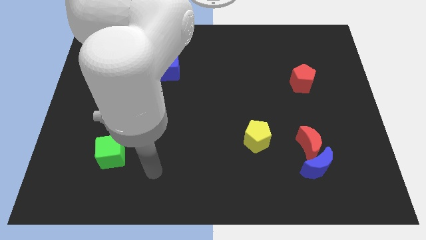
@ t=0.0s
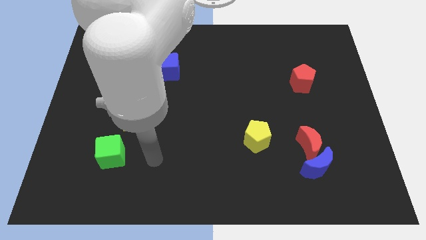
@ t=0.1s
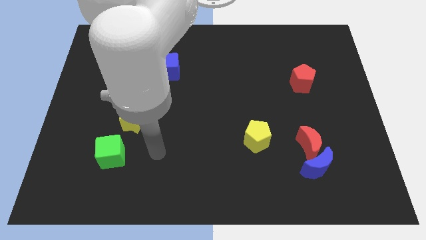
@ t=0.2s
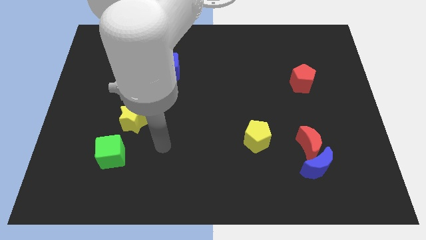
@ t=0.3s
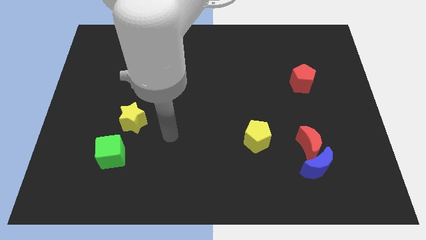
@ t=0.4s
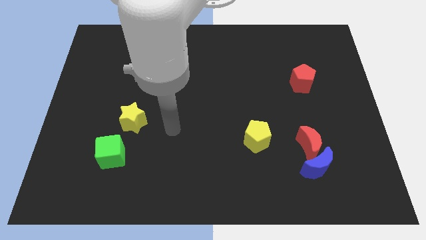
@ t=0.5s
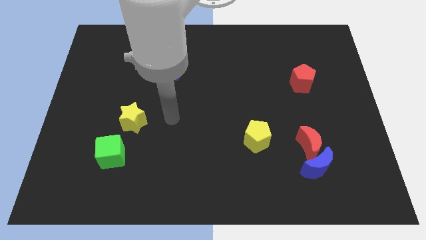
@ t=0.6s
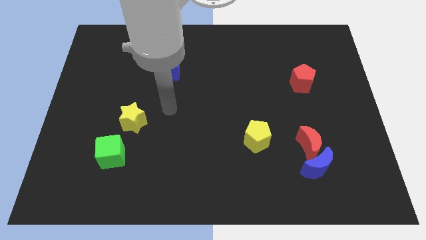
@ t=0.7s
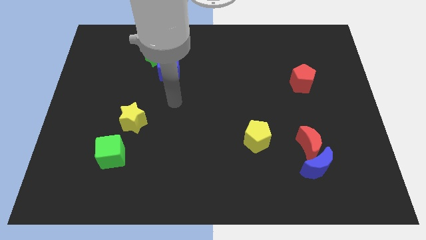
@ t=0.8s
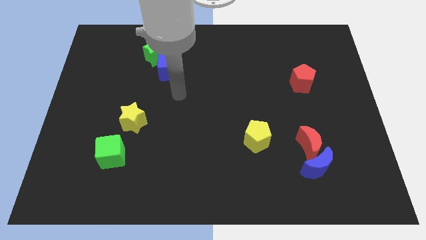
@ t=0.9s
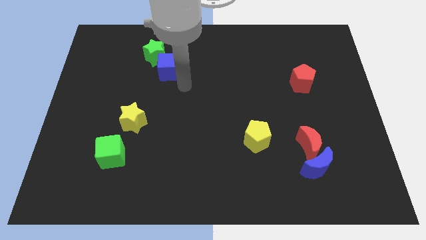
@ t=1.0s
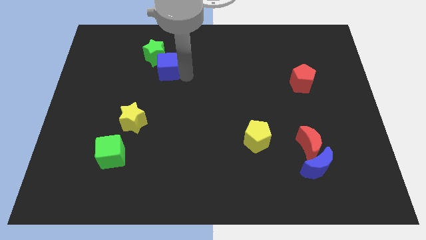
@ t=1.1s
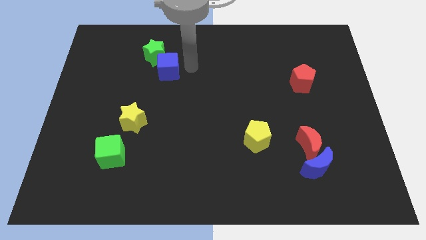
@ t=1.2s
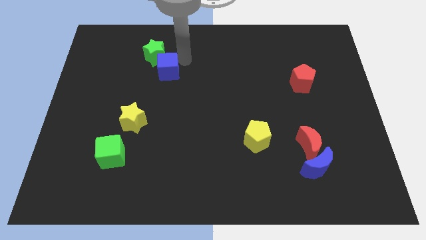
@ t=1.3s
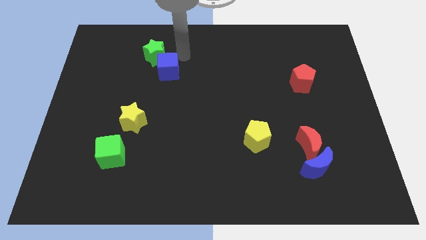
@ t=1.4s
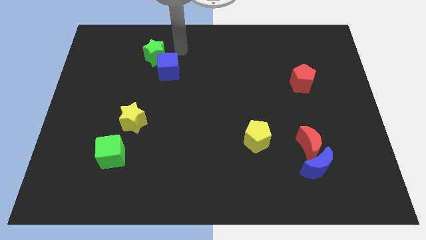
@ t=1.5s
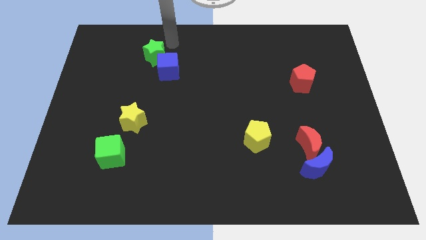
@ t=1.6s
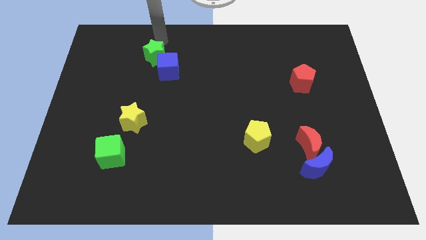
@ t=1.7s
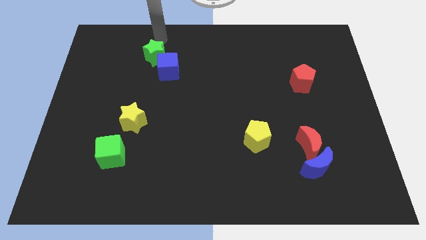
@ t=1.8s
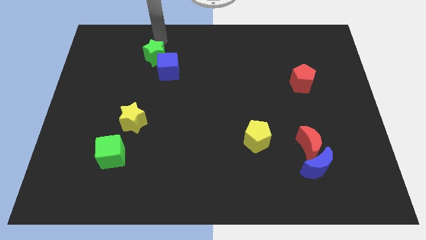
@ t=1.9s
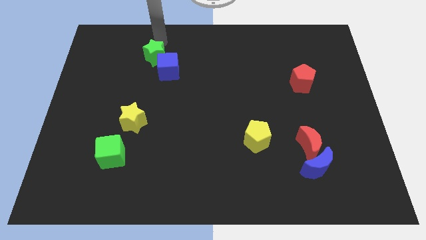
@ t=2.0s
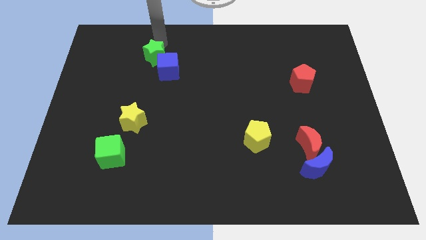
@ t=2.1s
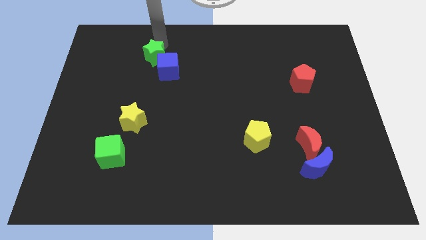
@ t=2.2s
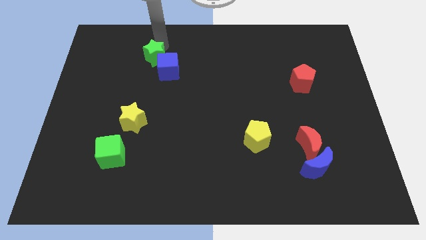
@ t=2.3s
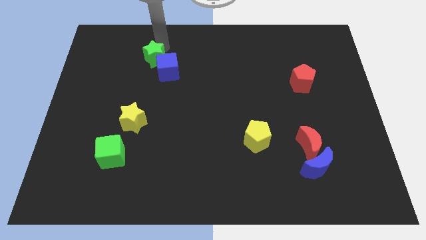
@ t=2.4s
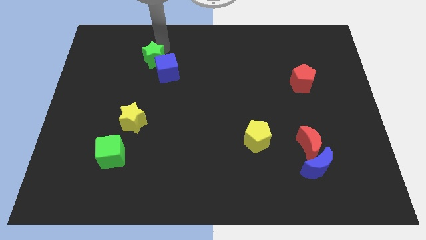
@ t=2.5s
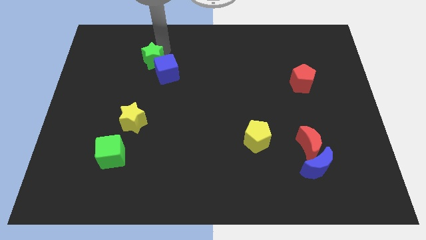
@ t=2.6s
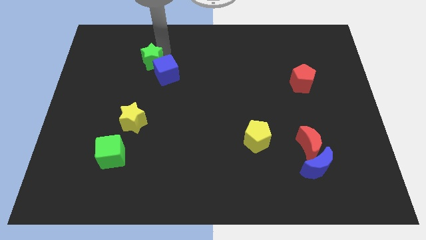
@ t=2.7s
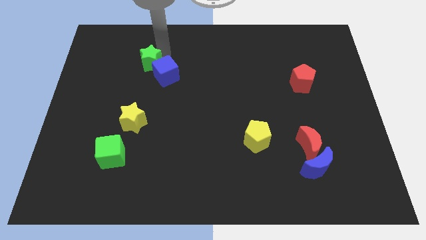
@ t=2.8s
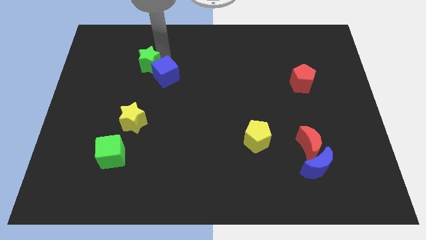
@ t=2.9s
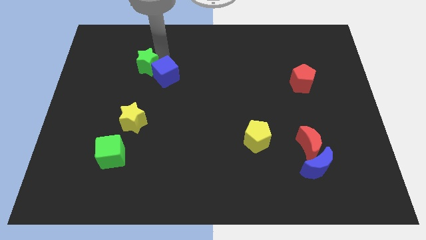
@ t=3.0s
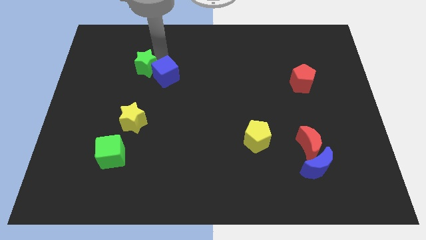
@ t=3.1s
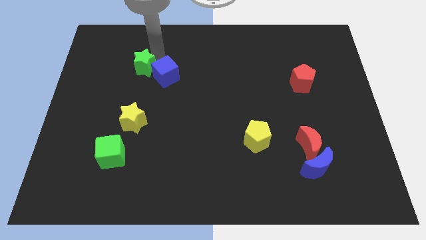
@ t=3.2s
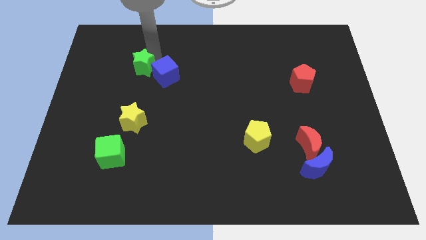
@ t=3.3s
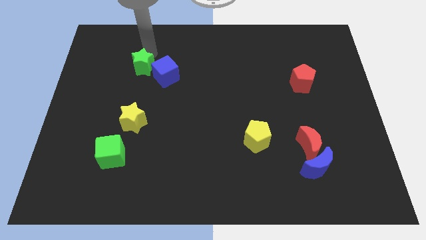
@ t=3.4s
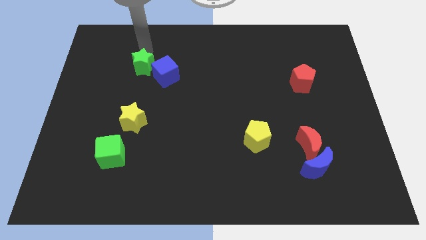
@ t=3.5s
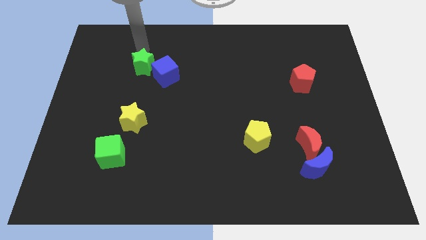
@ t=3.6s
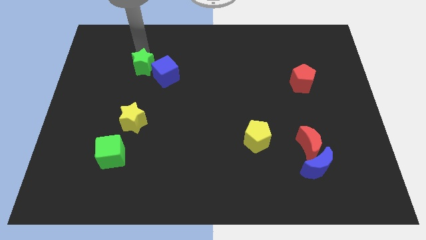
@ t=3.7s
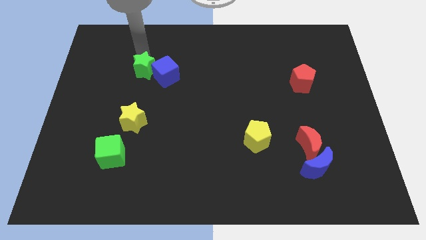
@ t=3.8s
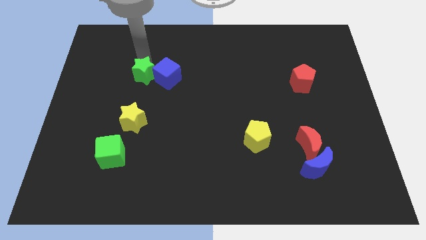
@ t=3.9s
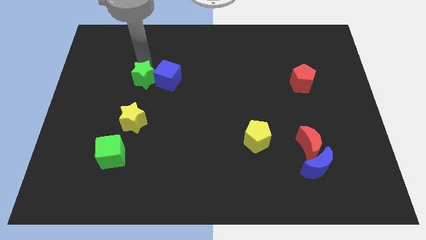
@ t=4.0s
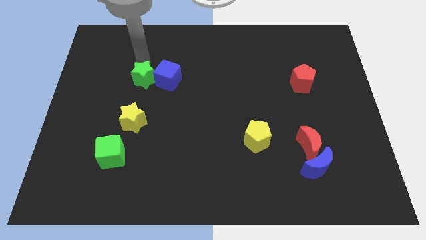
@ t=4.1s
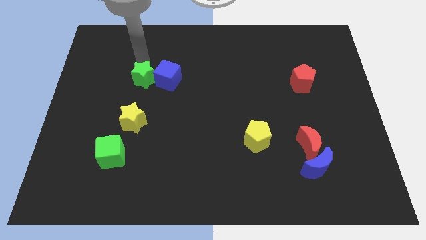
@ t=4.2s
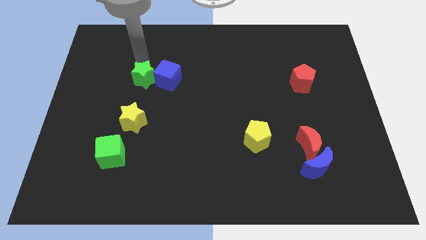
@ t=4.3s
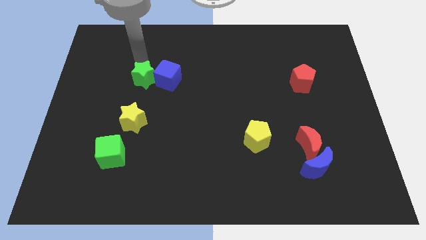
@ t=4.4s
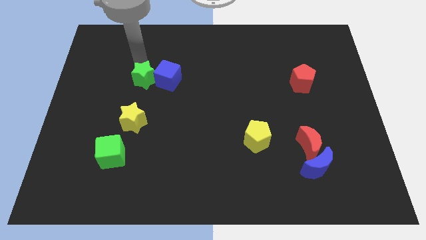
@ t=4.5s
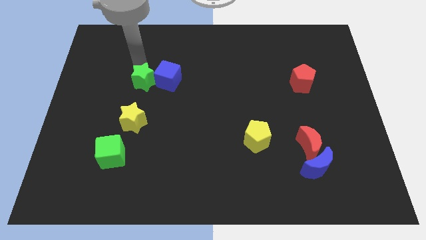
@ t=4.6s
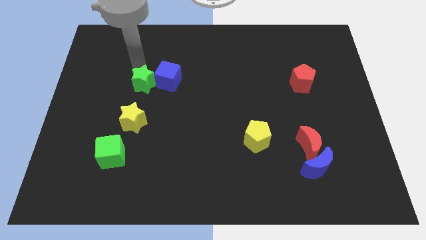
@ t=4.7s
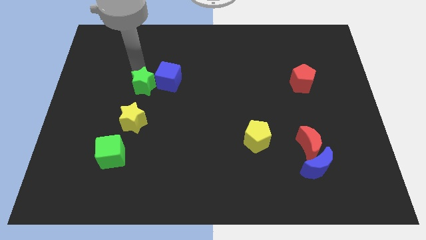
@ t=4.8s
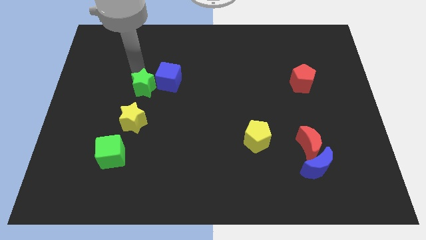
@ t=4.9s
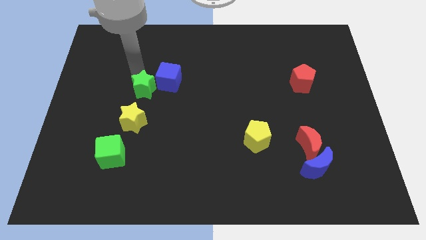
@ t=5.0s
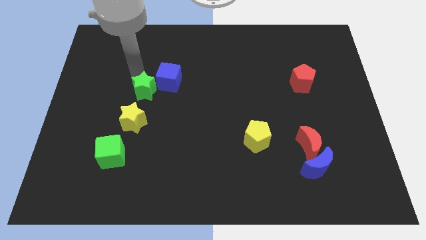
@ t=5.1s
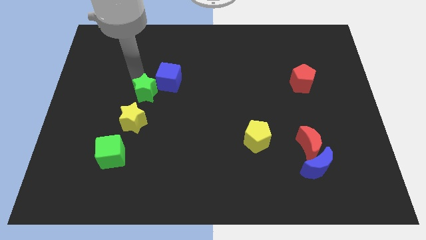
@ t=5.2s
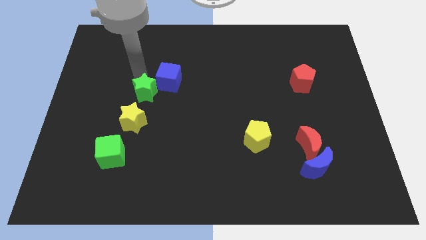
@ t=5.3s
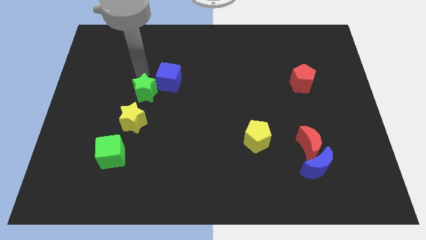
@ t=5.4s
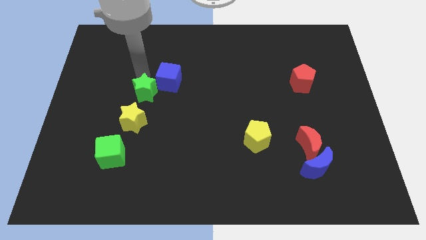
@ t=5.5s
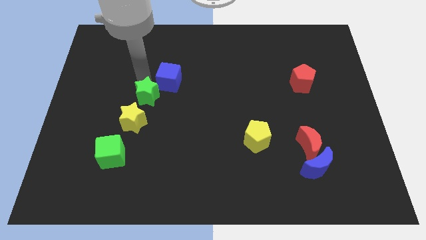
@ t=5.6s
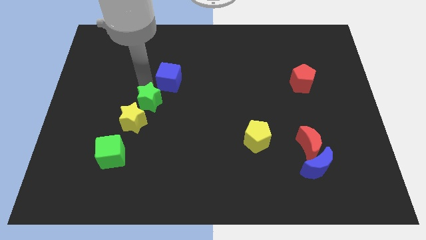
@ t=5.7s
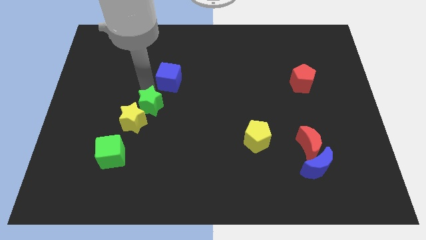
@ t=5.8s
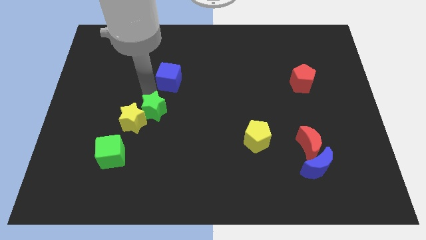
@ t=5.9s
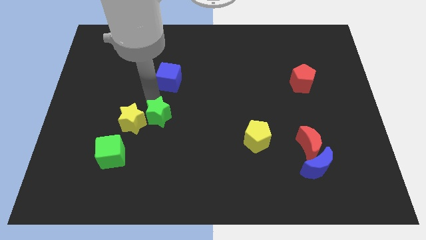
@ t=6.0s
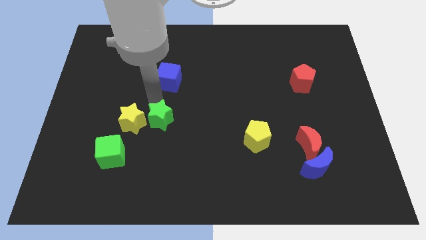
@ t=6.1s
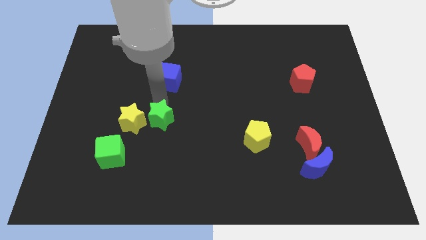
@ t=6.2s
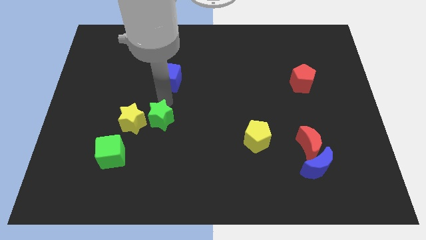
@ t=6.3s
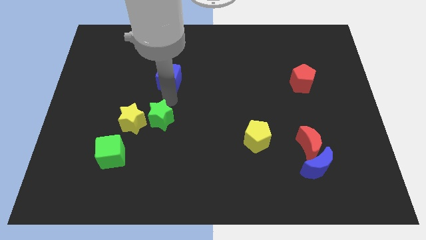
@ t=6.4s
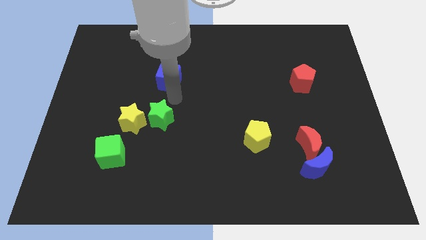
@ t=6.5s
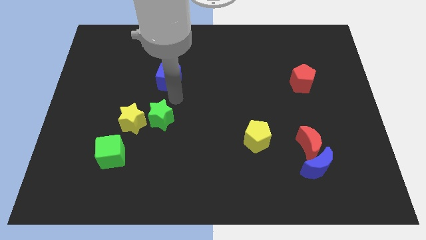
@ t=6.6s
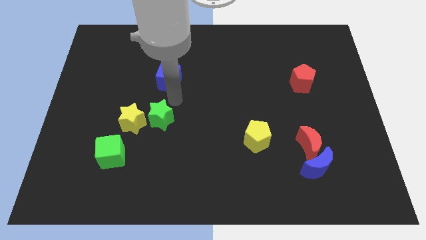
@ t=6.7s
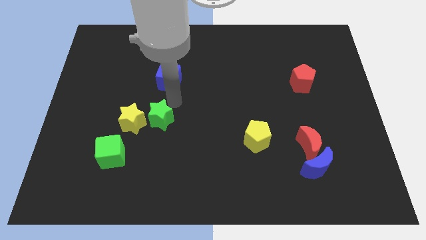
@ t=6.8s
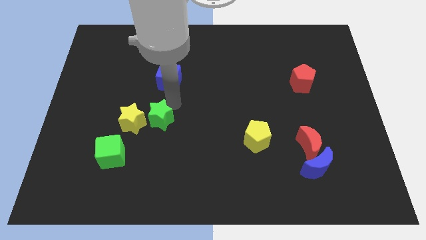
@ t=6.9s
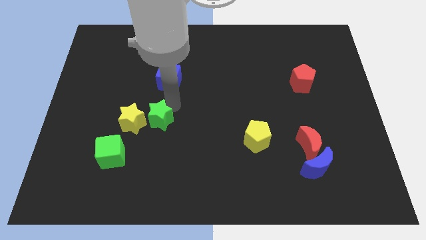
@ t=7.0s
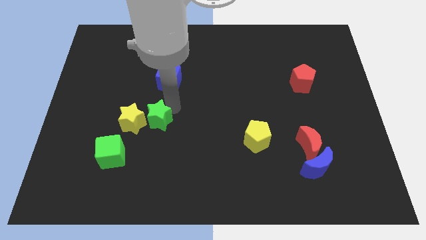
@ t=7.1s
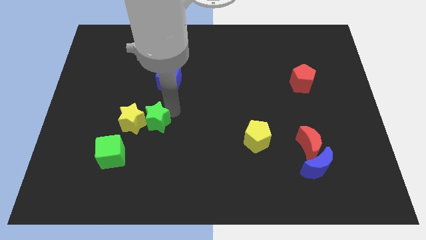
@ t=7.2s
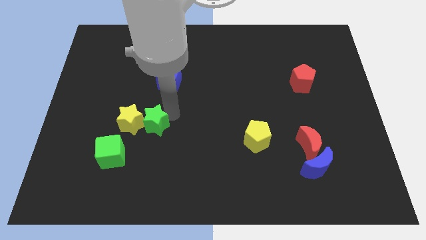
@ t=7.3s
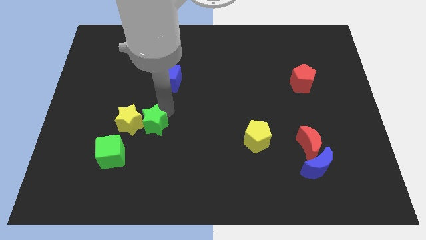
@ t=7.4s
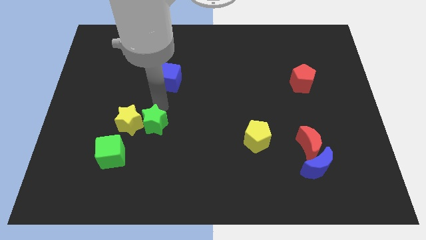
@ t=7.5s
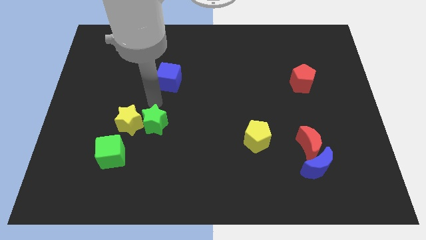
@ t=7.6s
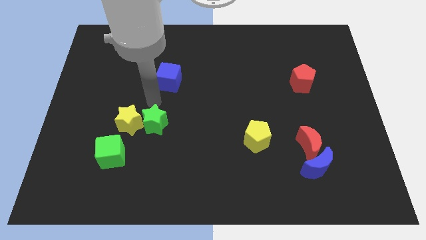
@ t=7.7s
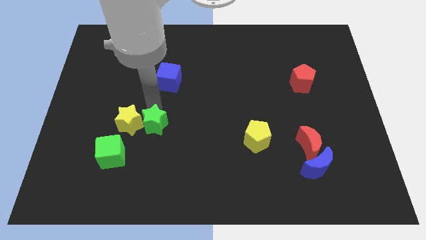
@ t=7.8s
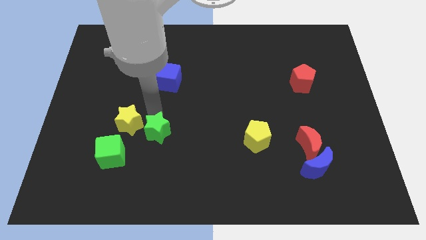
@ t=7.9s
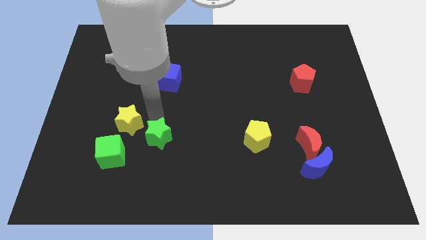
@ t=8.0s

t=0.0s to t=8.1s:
push the green star to the right of the green cube
